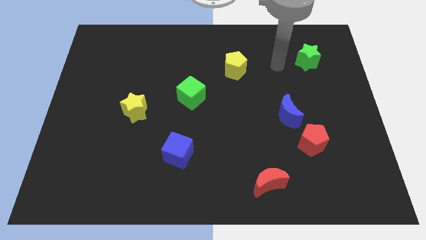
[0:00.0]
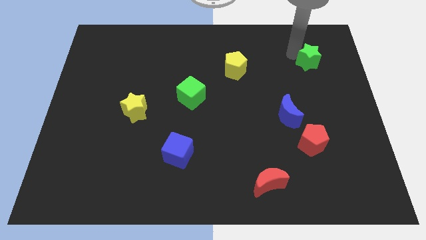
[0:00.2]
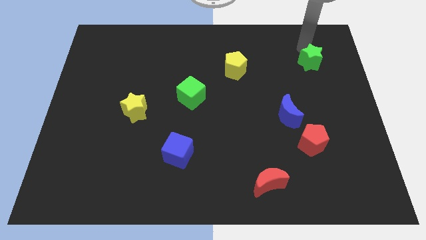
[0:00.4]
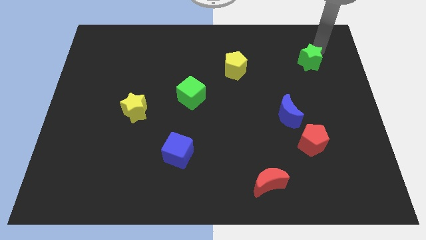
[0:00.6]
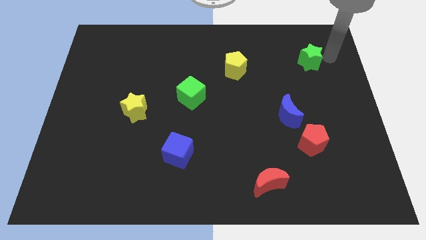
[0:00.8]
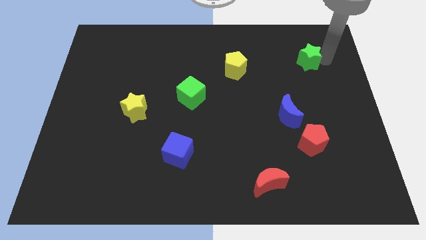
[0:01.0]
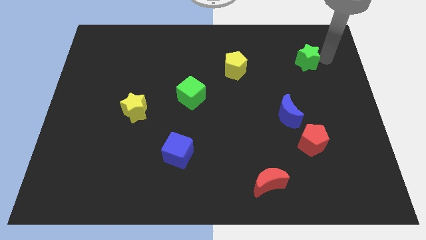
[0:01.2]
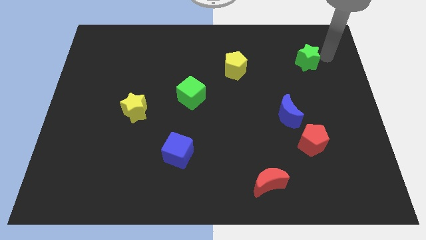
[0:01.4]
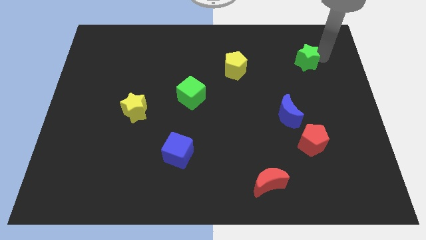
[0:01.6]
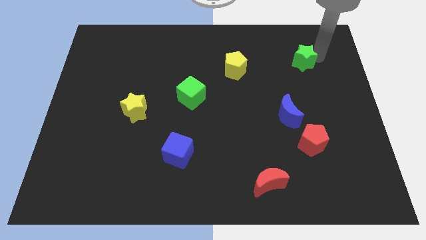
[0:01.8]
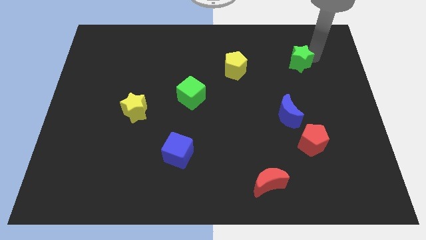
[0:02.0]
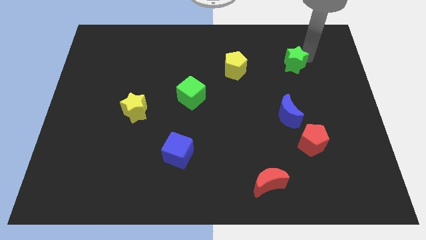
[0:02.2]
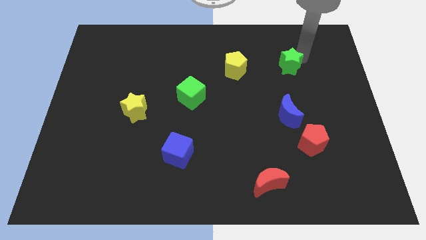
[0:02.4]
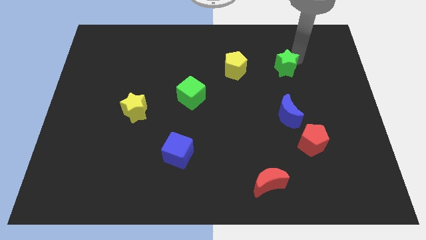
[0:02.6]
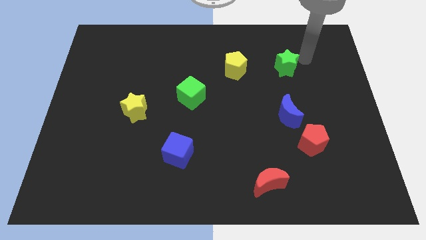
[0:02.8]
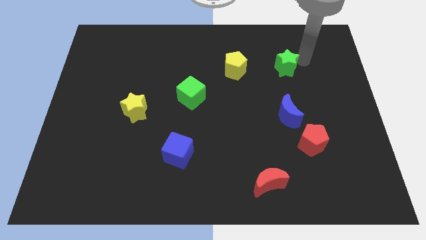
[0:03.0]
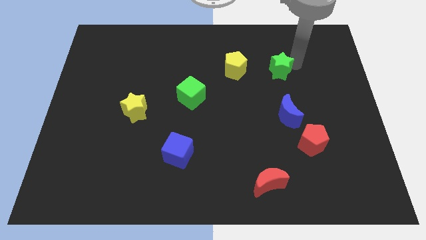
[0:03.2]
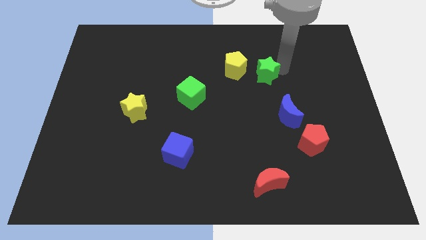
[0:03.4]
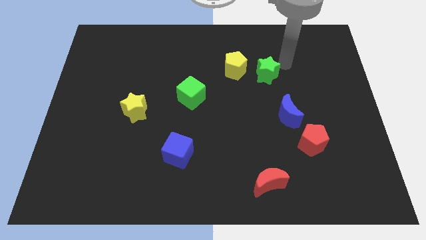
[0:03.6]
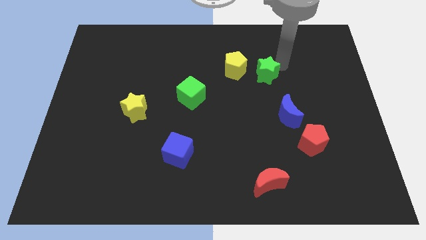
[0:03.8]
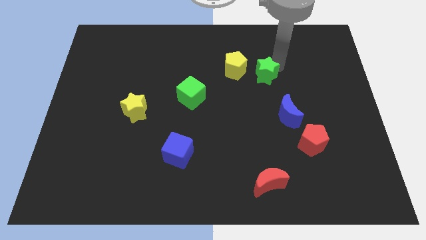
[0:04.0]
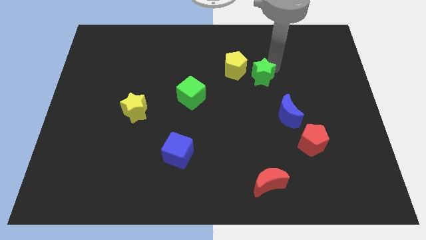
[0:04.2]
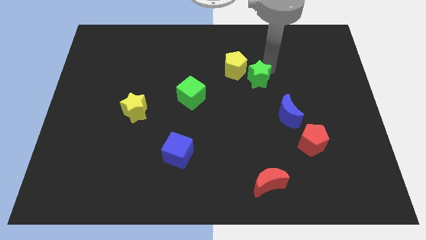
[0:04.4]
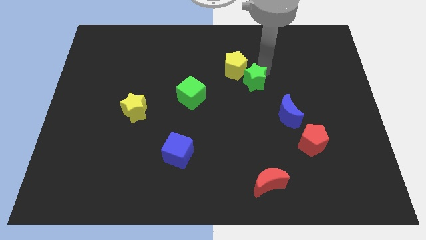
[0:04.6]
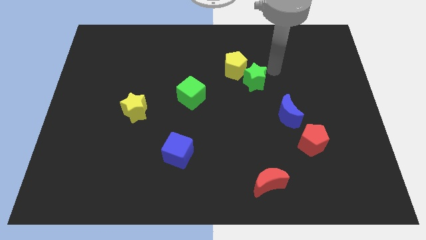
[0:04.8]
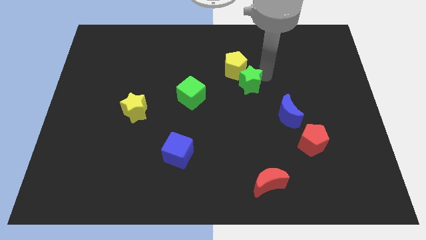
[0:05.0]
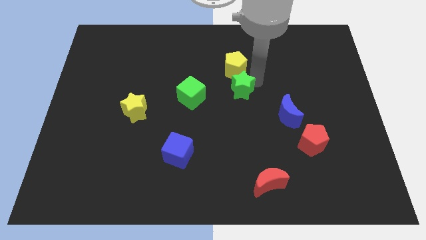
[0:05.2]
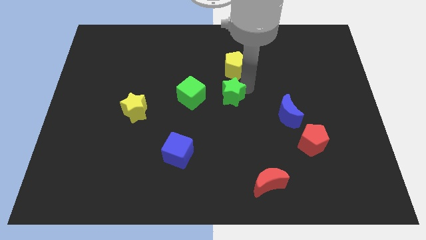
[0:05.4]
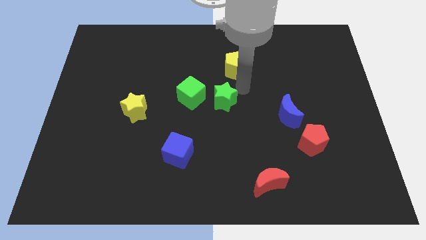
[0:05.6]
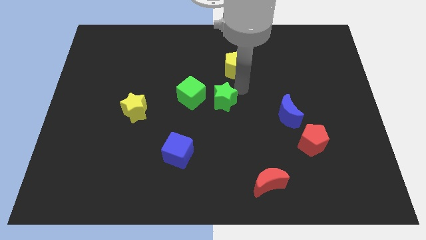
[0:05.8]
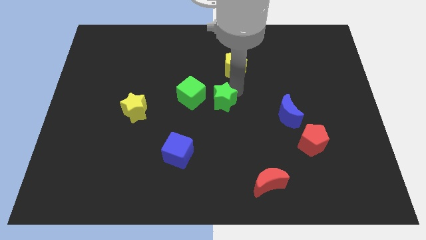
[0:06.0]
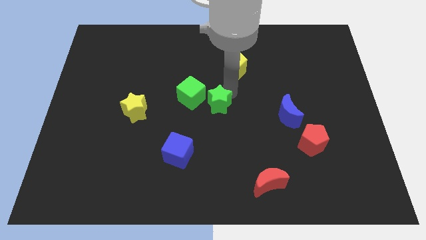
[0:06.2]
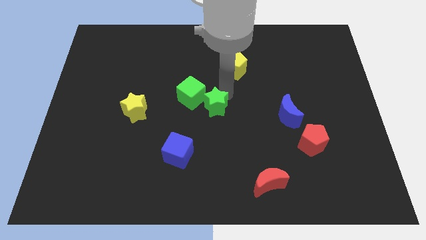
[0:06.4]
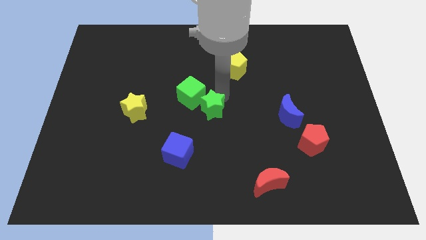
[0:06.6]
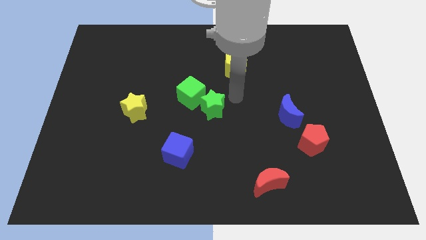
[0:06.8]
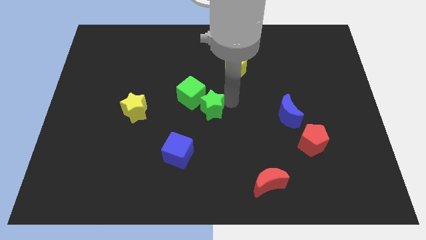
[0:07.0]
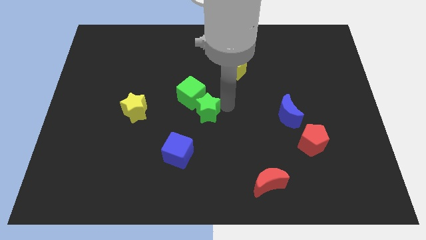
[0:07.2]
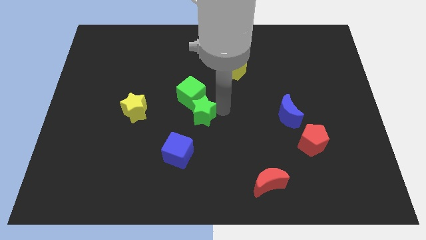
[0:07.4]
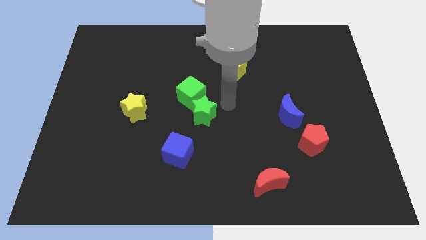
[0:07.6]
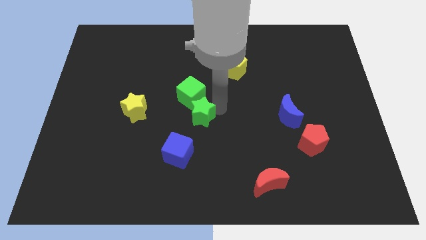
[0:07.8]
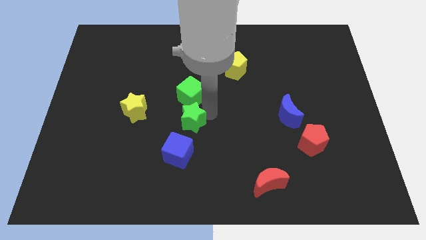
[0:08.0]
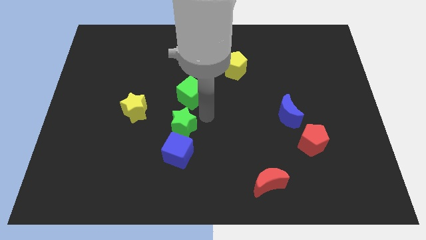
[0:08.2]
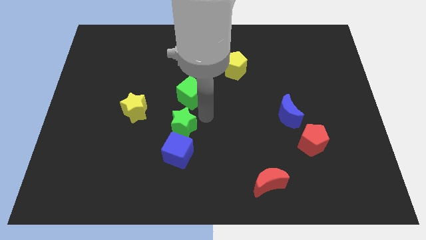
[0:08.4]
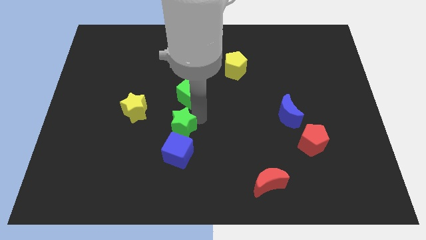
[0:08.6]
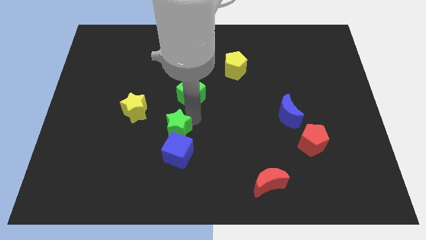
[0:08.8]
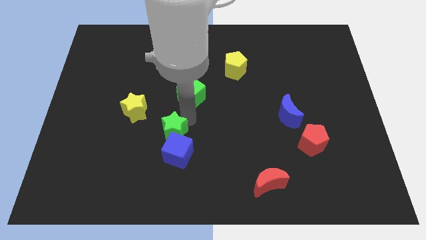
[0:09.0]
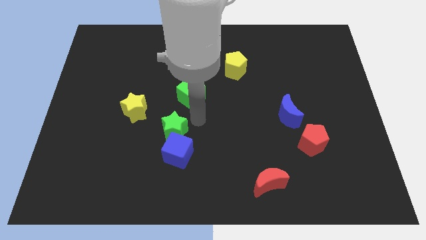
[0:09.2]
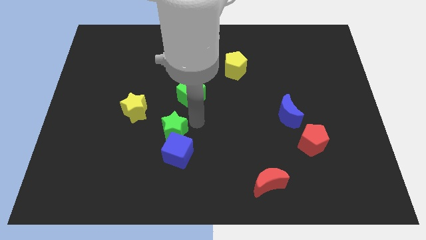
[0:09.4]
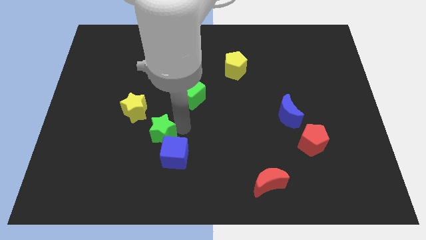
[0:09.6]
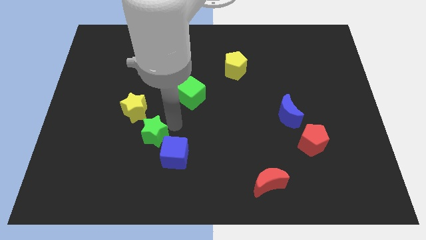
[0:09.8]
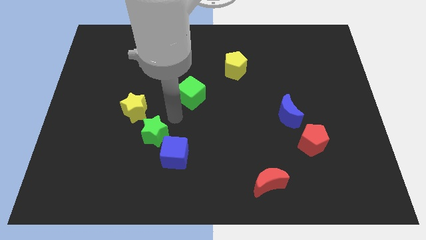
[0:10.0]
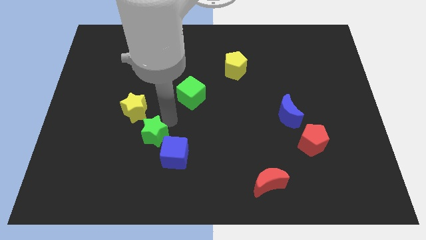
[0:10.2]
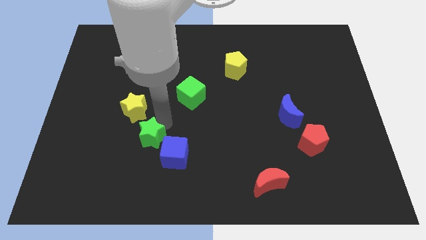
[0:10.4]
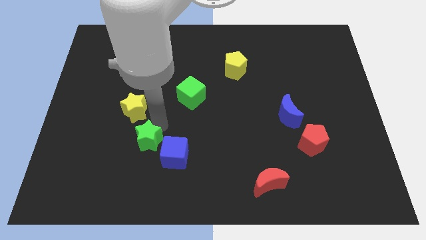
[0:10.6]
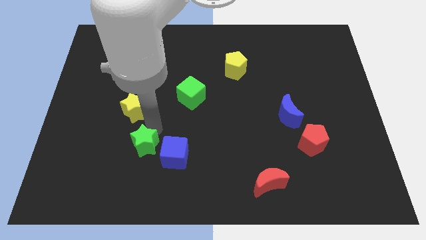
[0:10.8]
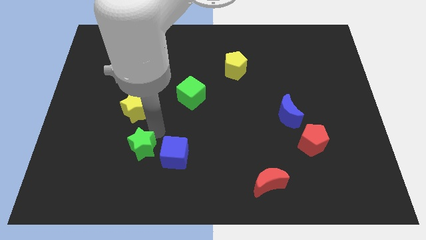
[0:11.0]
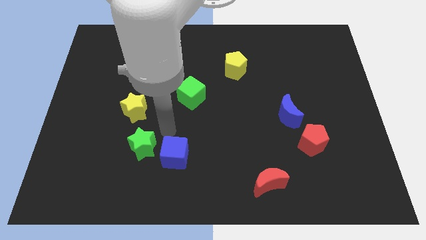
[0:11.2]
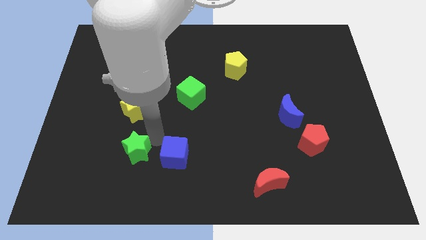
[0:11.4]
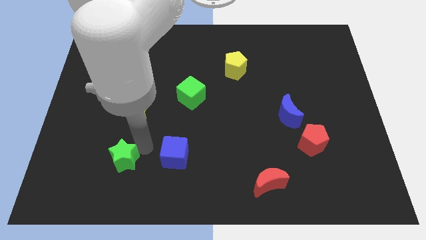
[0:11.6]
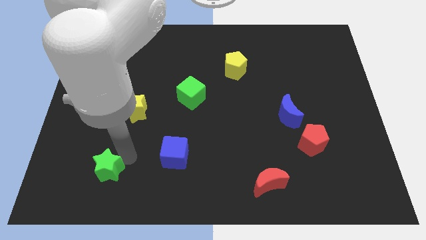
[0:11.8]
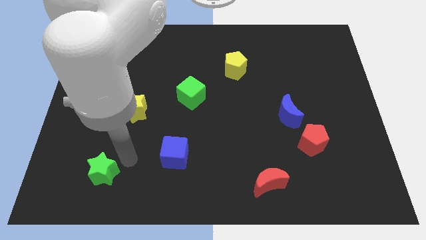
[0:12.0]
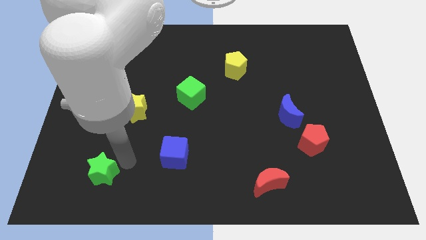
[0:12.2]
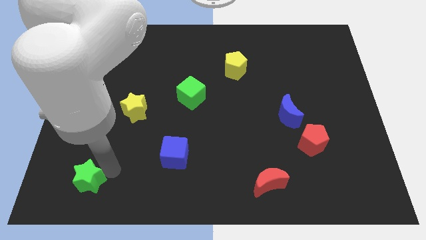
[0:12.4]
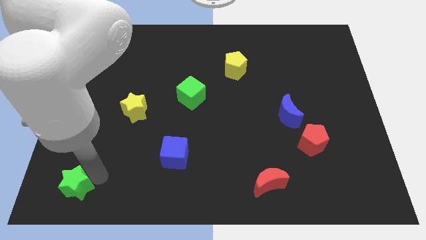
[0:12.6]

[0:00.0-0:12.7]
move the green star to the lower left corner

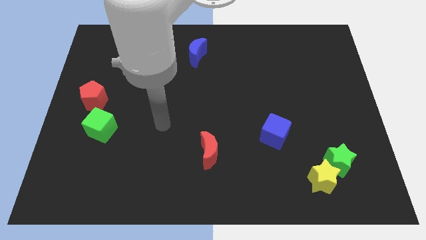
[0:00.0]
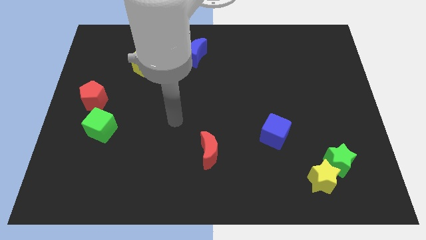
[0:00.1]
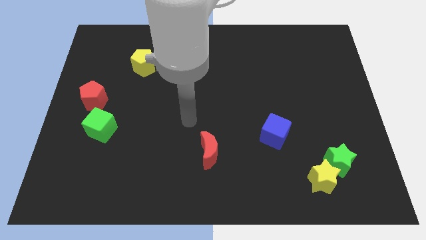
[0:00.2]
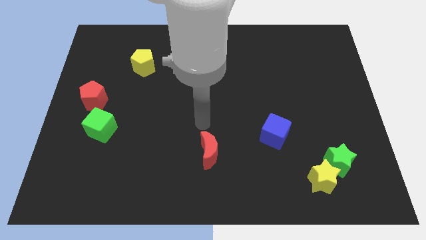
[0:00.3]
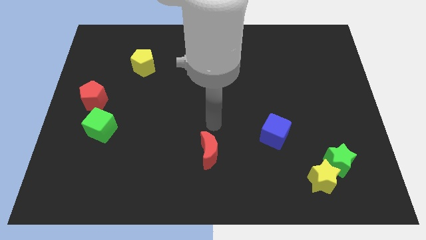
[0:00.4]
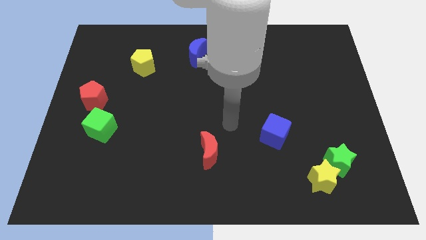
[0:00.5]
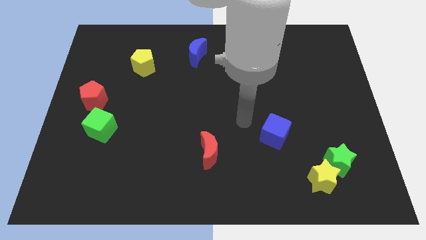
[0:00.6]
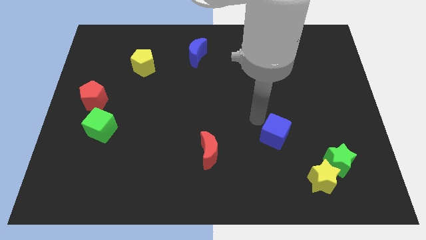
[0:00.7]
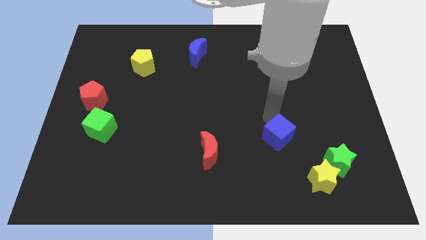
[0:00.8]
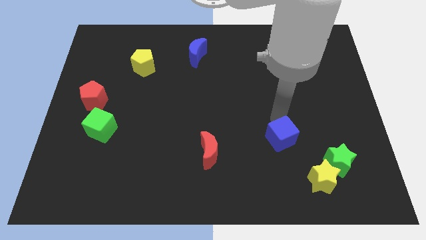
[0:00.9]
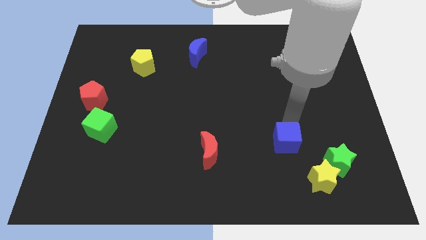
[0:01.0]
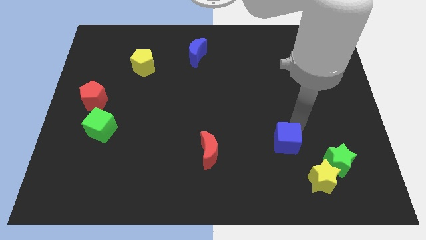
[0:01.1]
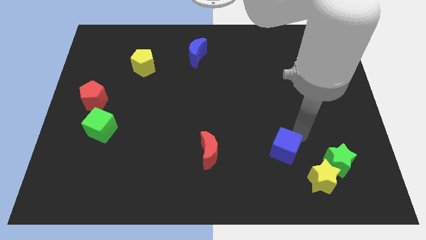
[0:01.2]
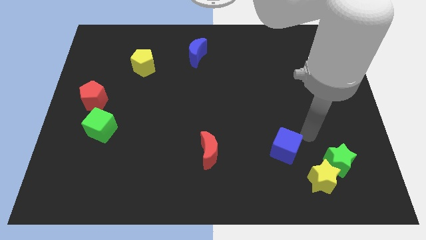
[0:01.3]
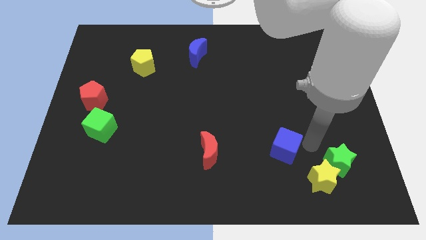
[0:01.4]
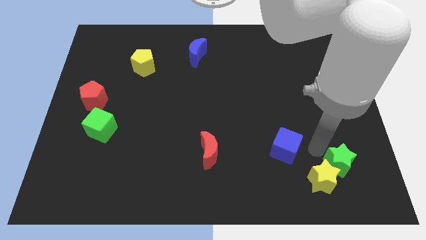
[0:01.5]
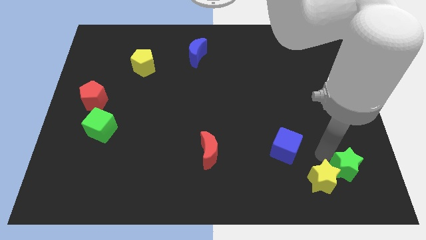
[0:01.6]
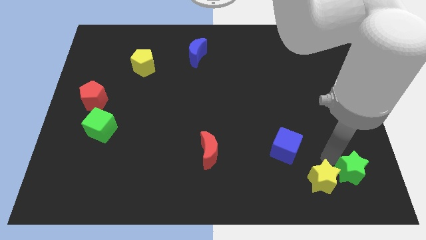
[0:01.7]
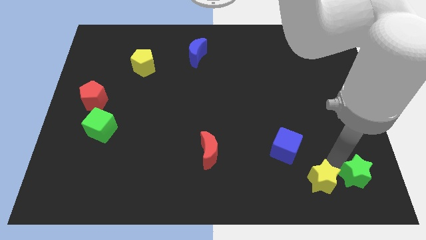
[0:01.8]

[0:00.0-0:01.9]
move the green star to the bottom right corner
